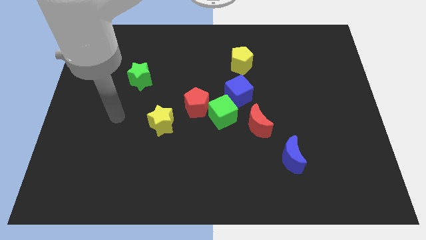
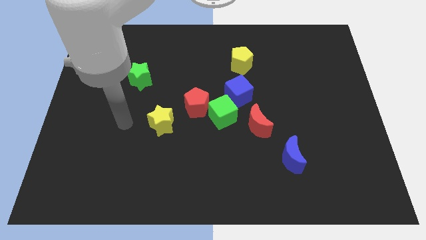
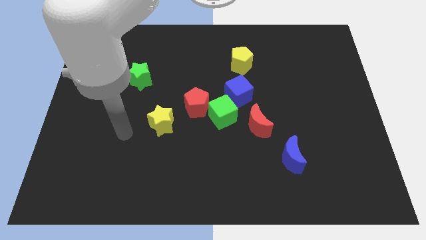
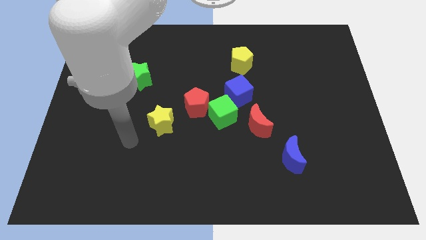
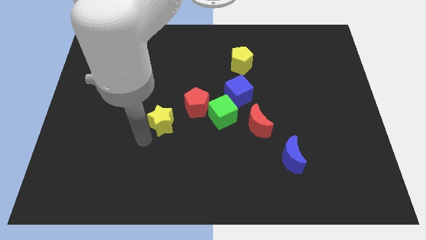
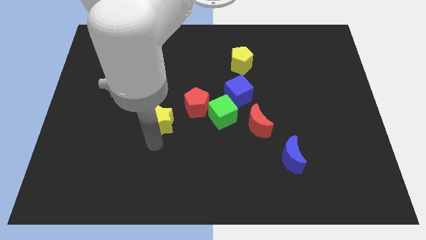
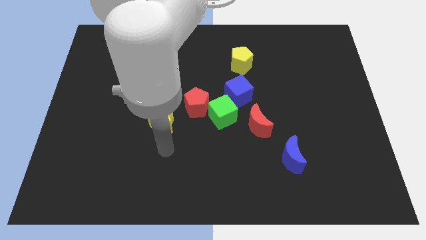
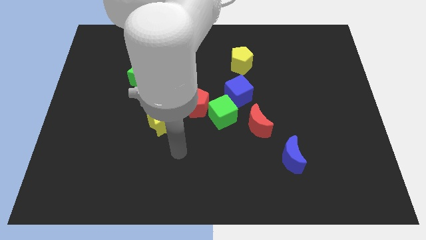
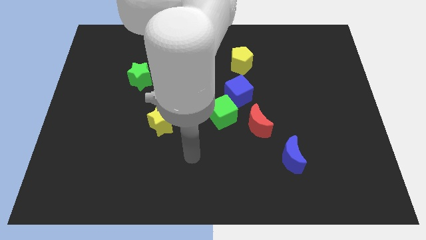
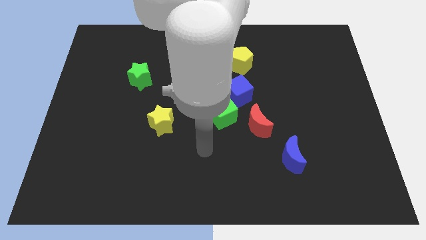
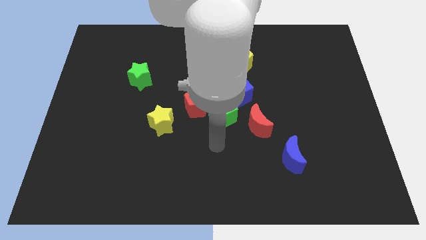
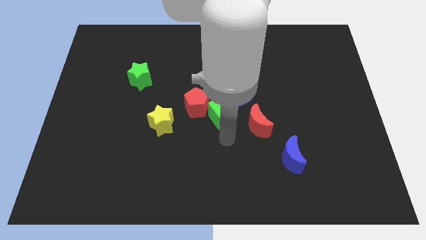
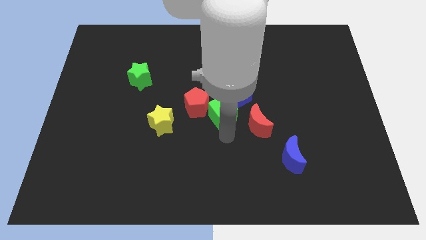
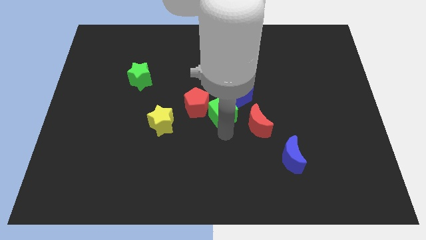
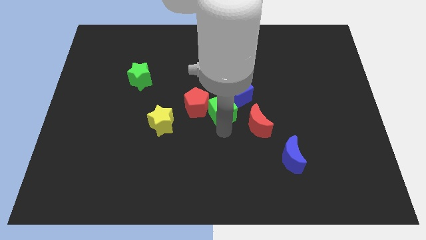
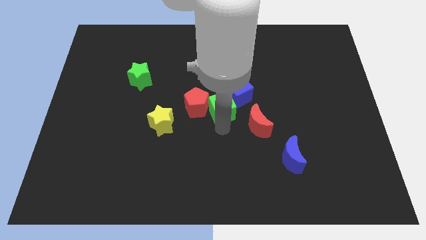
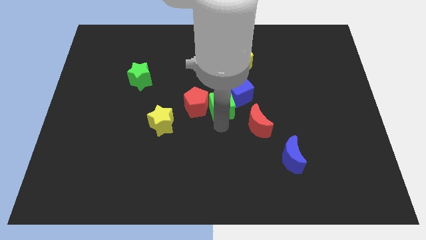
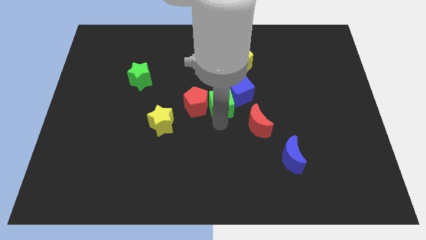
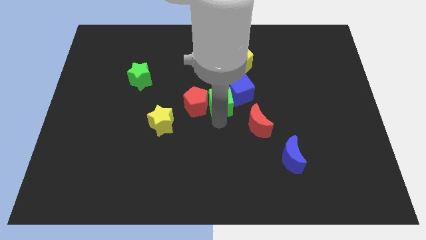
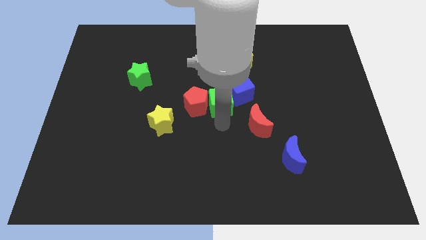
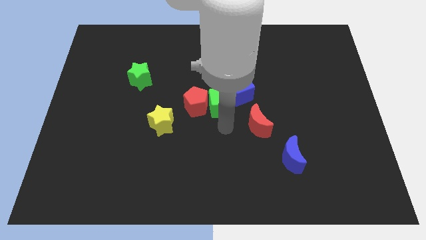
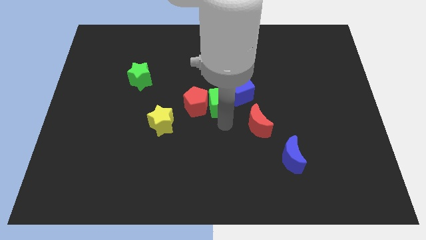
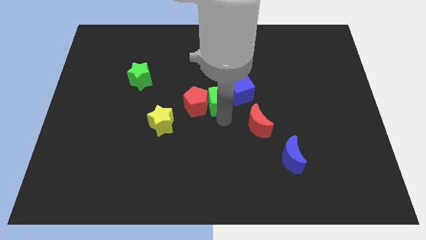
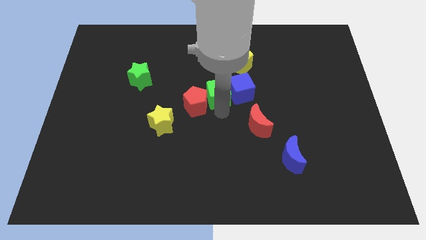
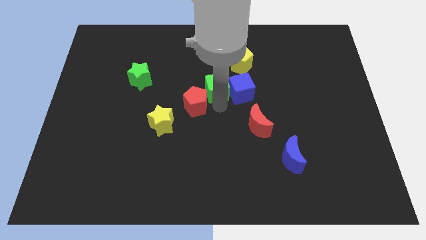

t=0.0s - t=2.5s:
slide the green cube upwards a bit

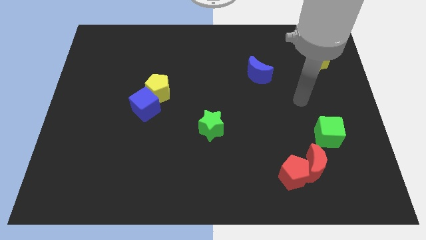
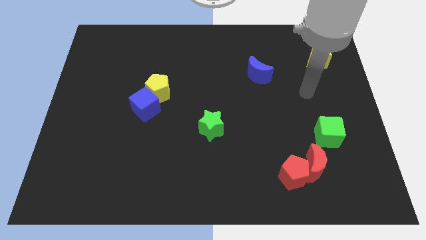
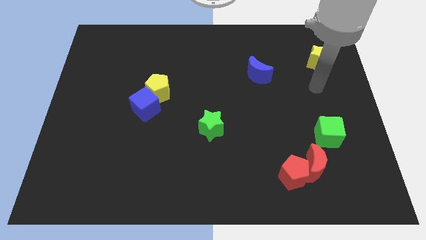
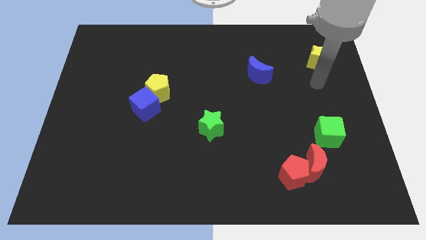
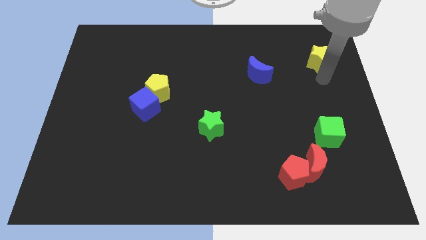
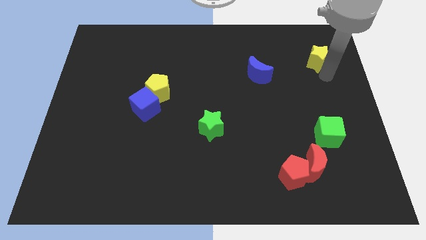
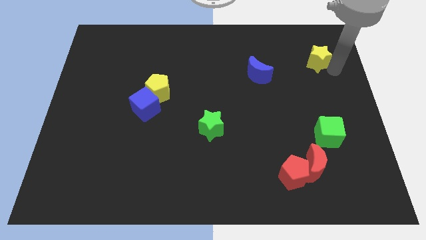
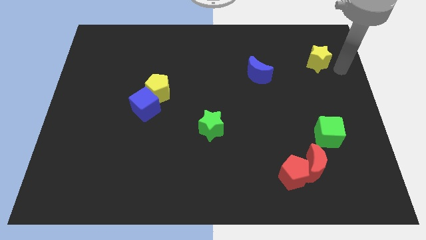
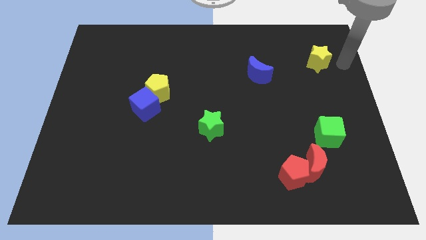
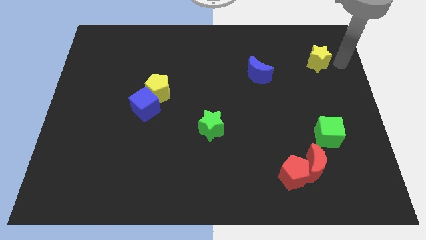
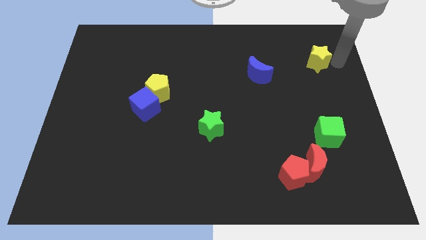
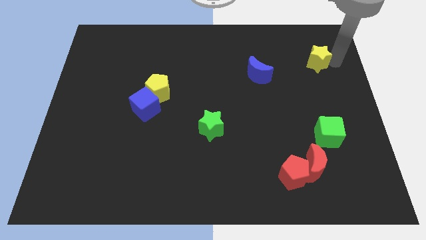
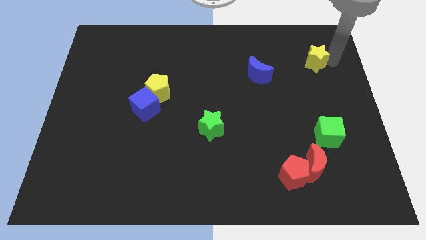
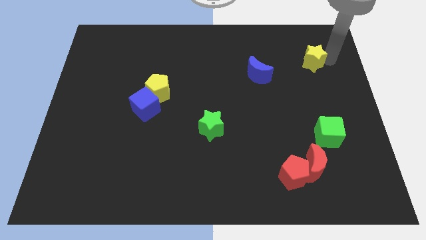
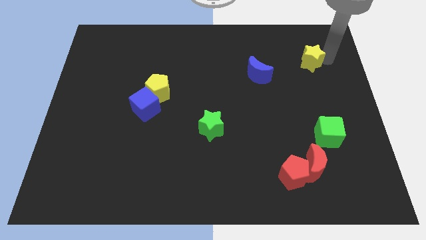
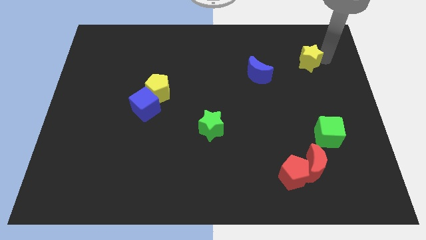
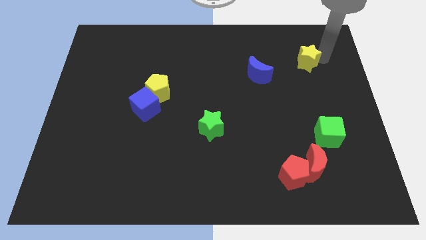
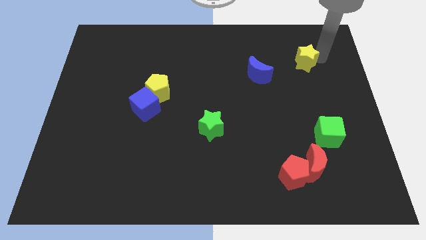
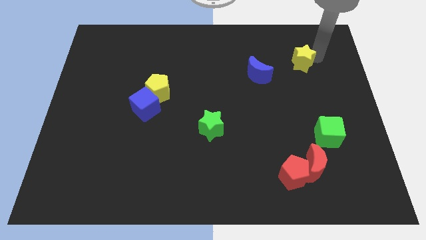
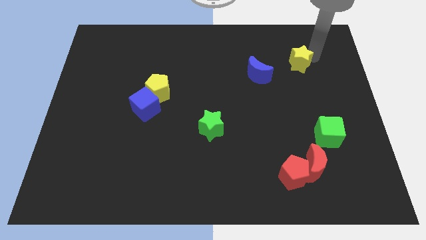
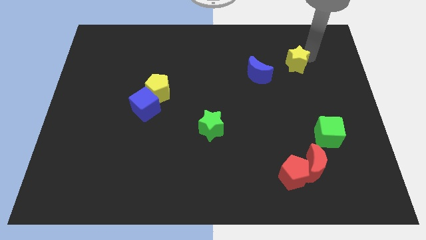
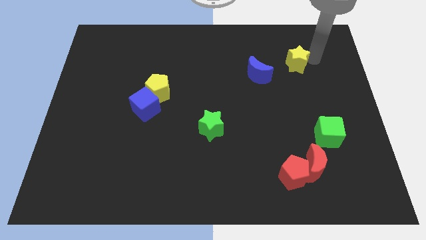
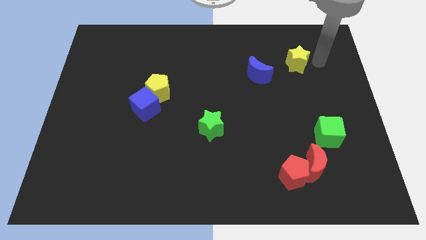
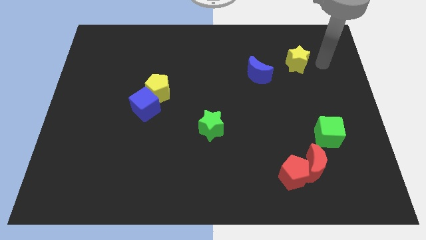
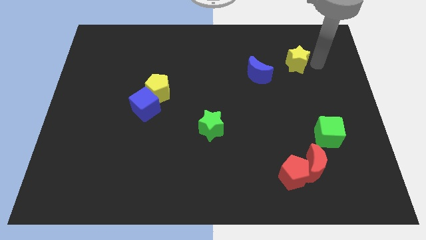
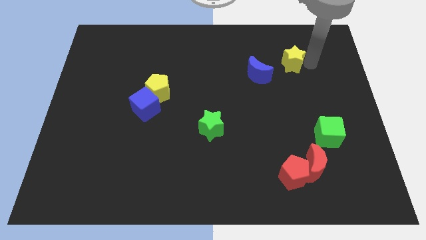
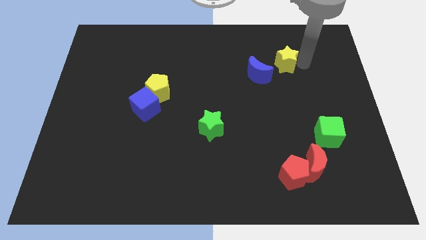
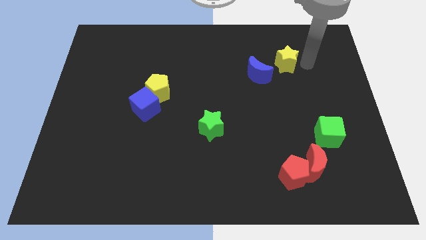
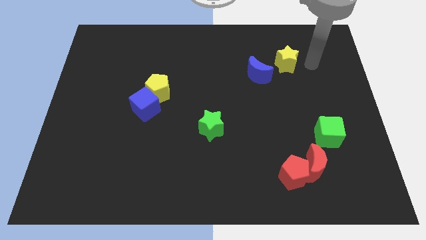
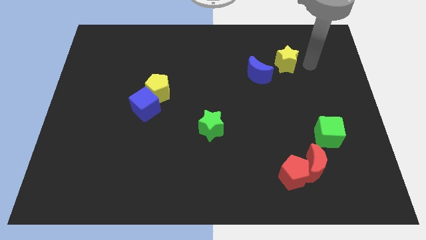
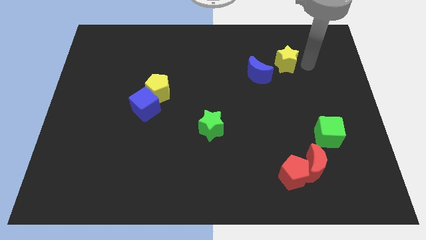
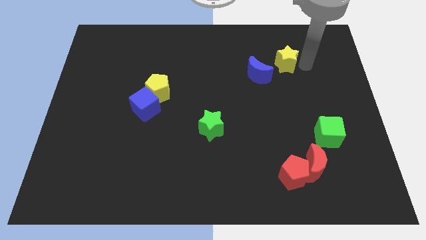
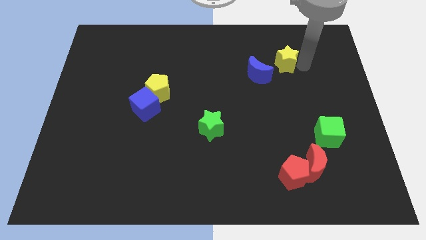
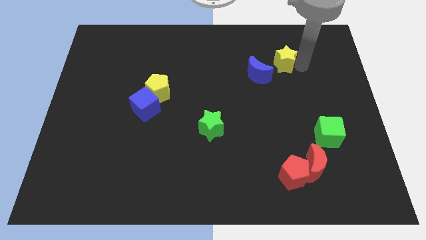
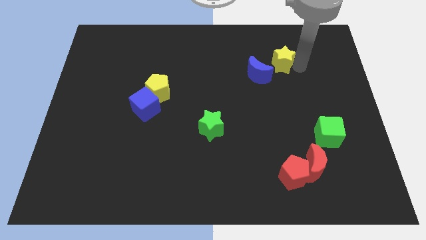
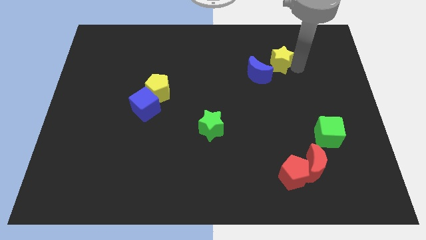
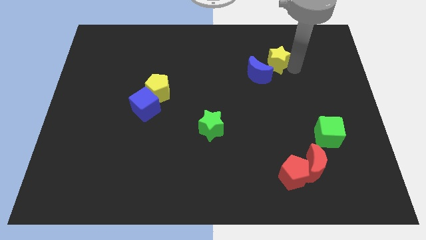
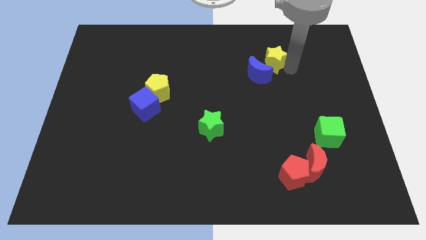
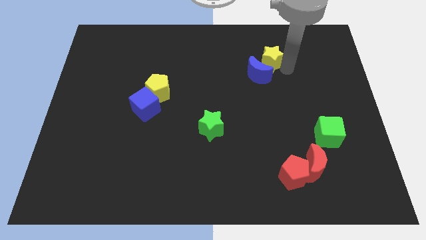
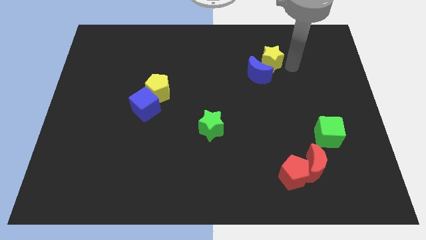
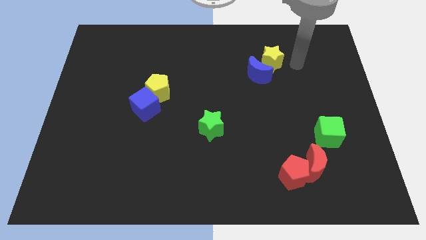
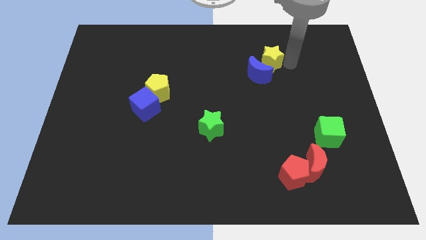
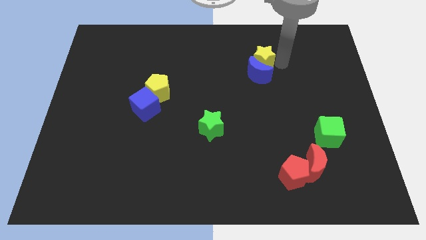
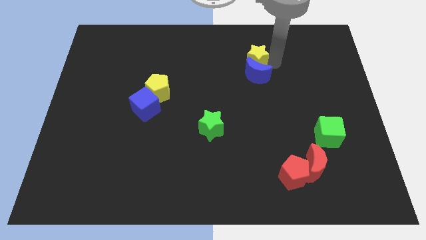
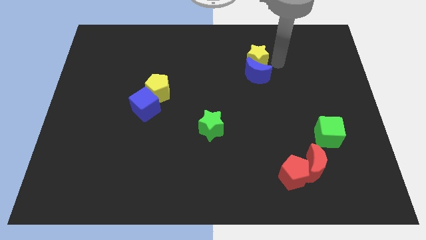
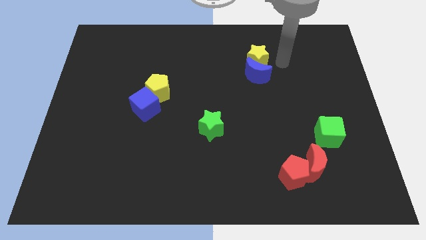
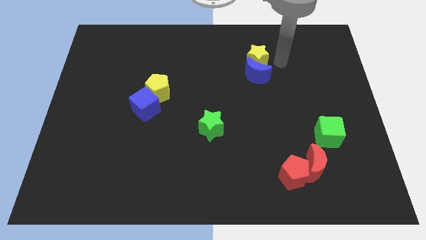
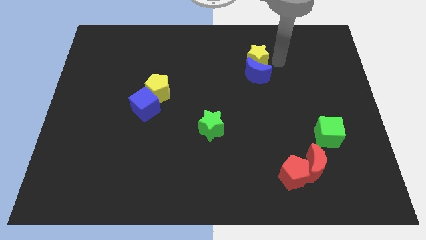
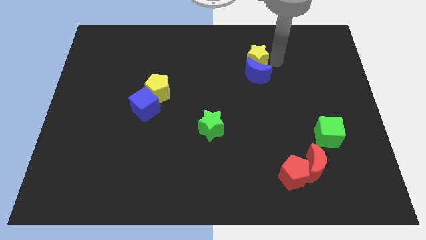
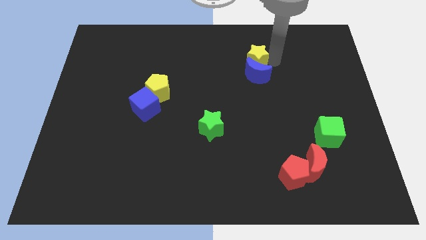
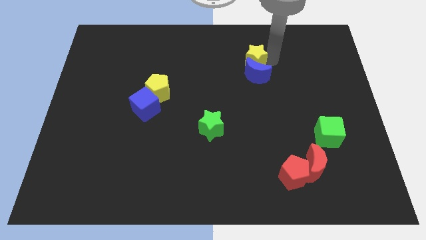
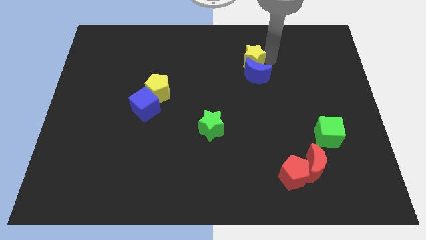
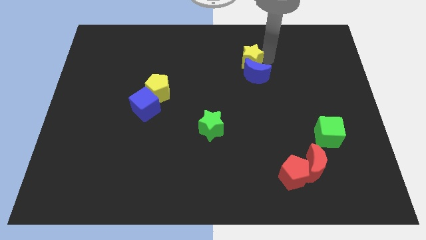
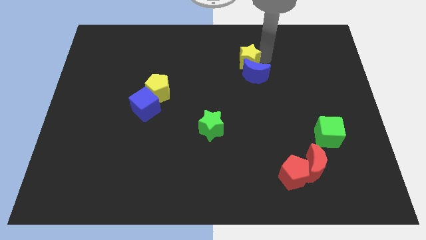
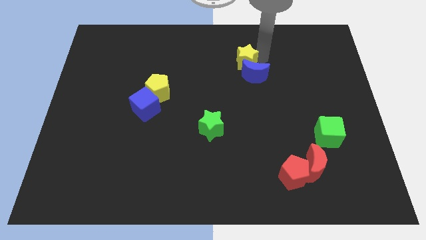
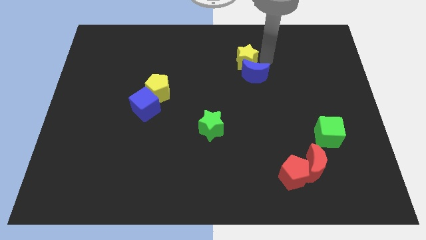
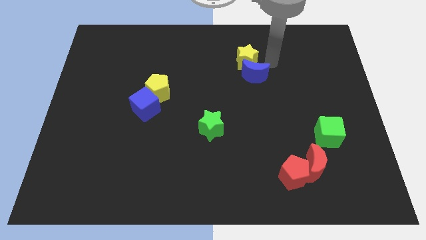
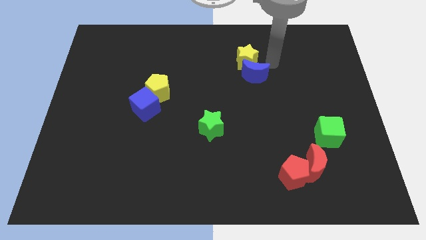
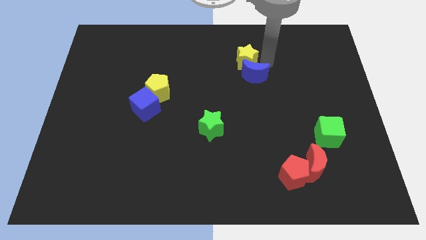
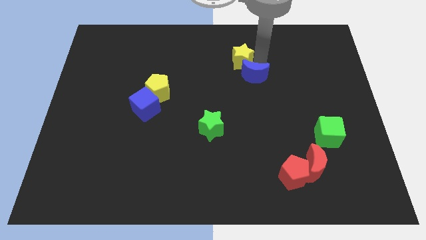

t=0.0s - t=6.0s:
move the yellow star left
